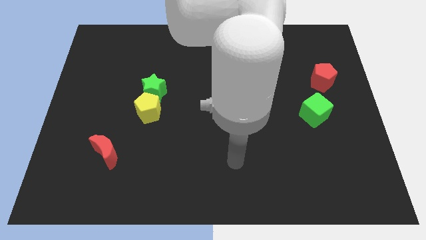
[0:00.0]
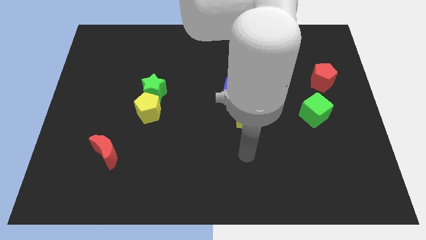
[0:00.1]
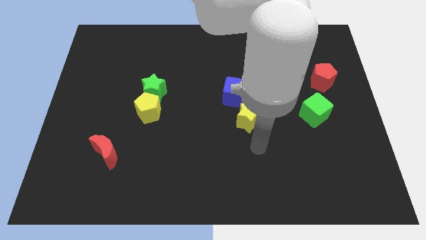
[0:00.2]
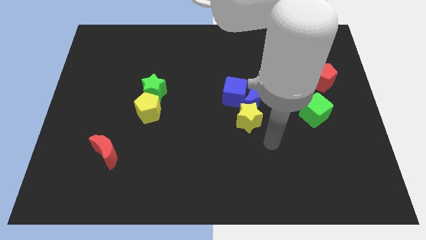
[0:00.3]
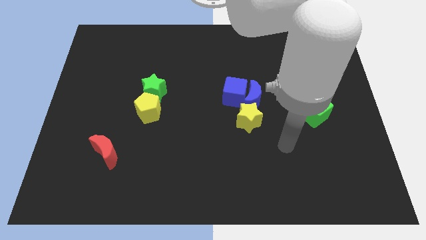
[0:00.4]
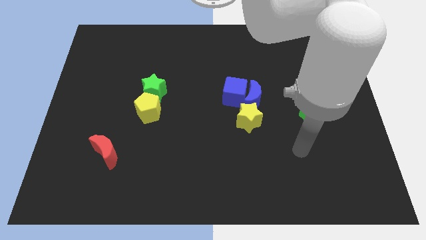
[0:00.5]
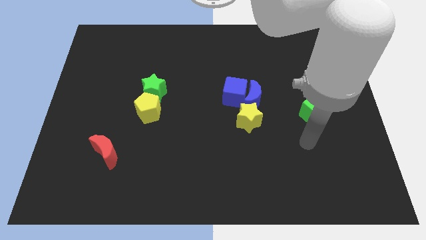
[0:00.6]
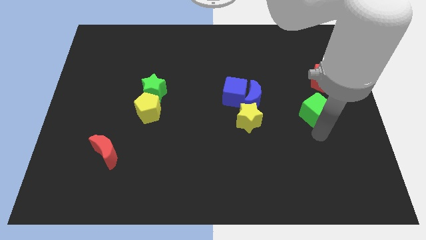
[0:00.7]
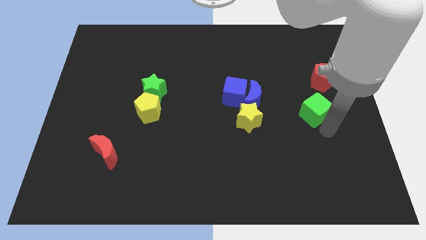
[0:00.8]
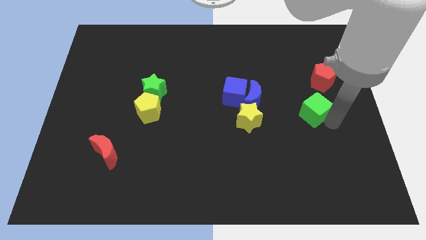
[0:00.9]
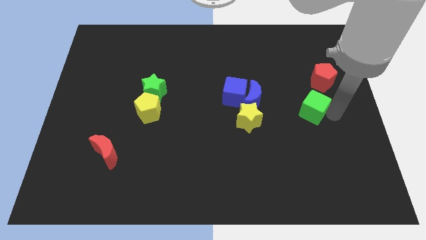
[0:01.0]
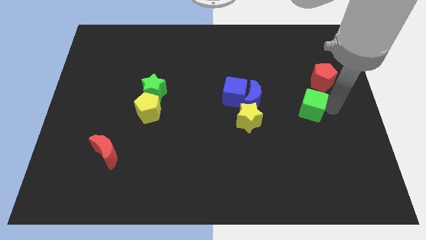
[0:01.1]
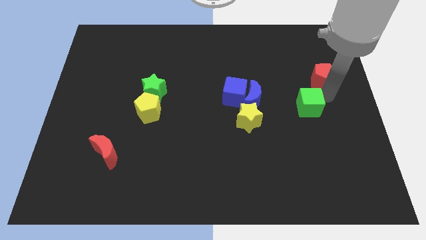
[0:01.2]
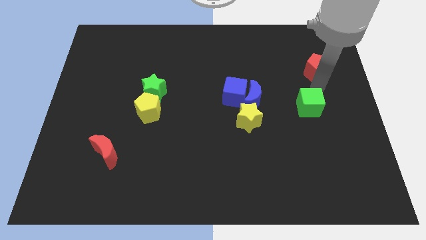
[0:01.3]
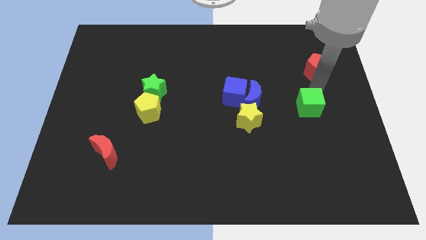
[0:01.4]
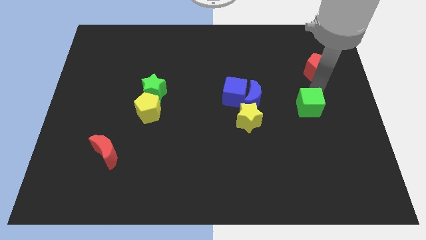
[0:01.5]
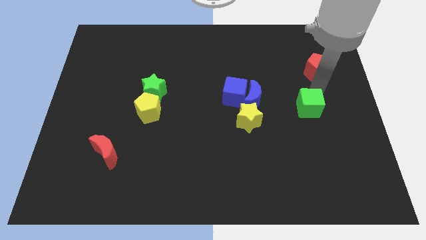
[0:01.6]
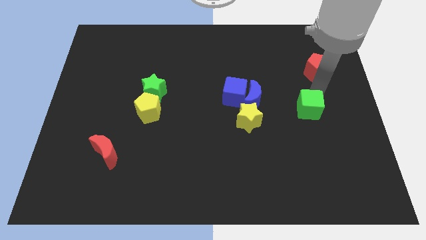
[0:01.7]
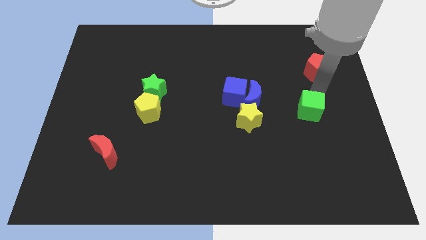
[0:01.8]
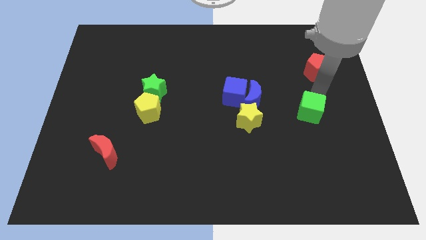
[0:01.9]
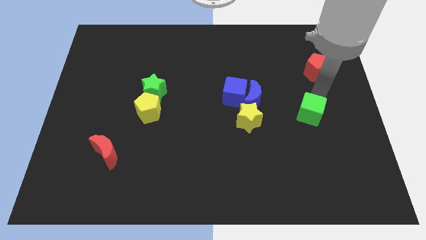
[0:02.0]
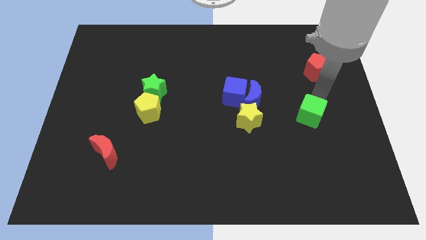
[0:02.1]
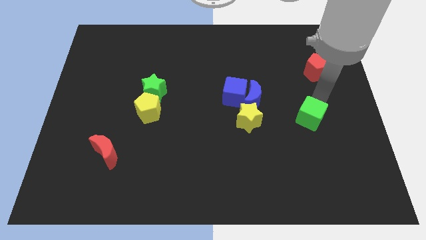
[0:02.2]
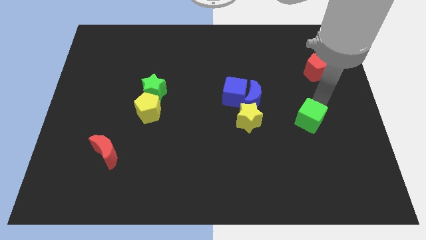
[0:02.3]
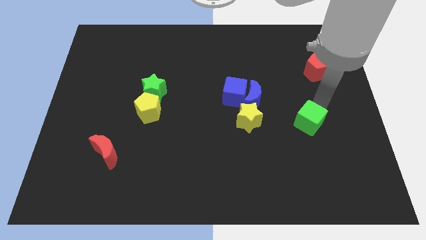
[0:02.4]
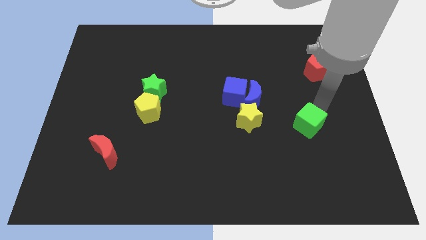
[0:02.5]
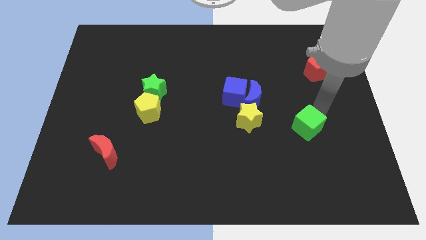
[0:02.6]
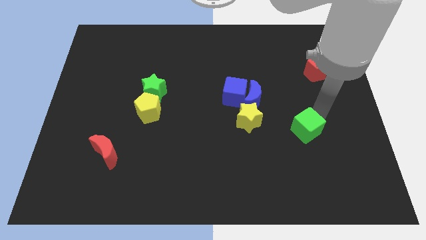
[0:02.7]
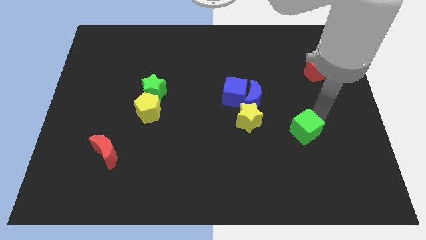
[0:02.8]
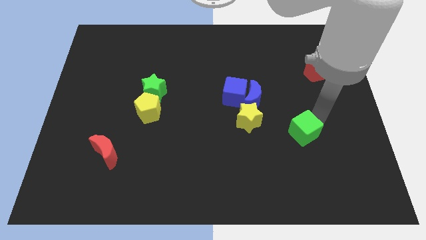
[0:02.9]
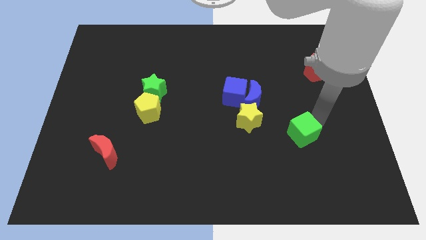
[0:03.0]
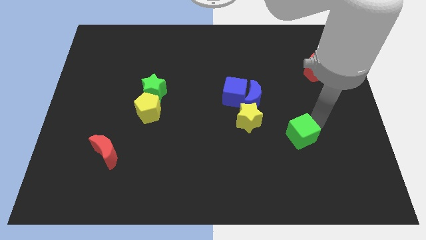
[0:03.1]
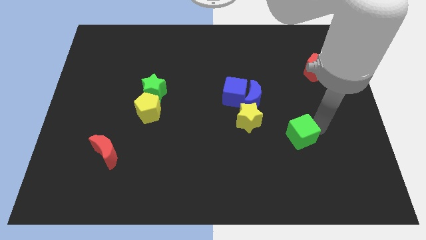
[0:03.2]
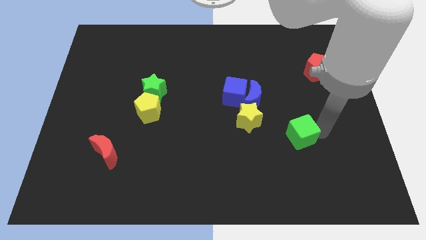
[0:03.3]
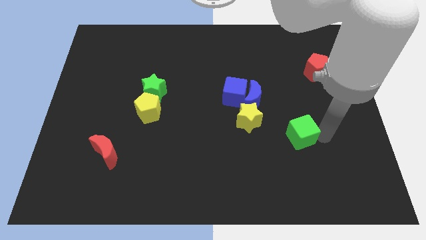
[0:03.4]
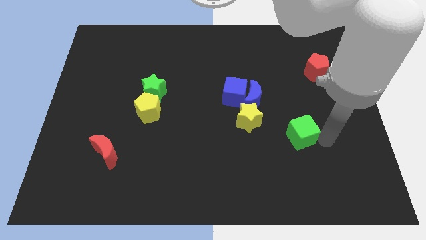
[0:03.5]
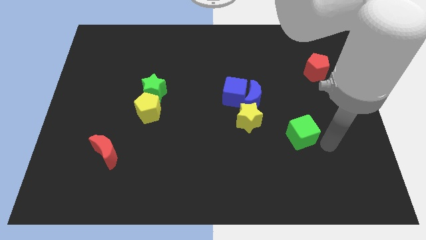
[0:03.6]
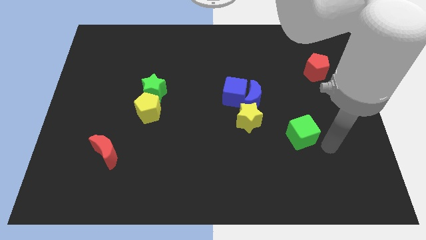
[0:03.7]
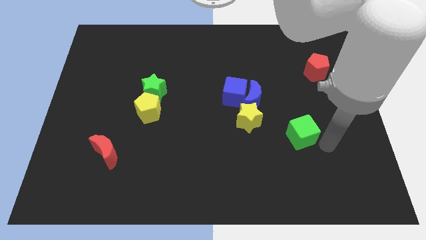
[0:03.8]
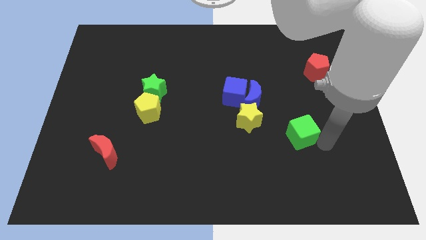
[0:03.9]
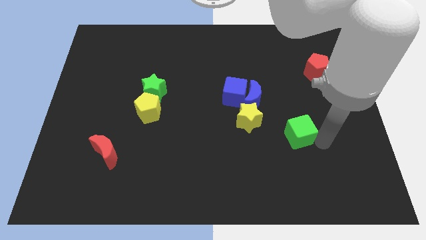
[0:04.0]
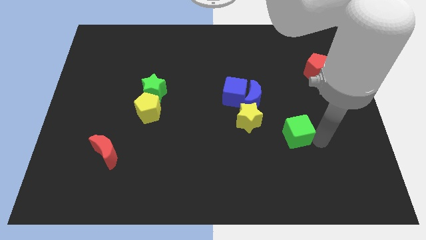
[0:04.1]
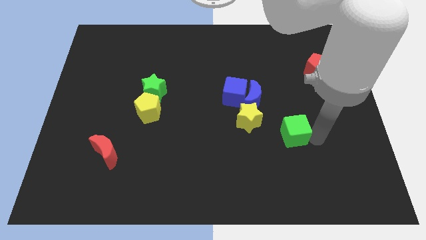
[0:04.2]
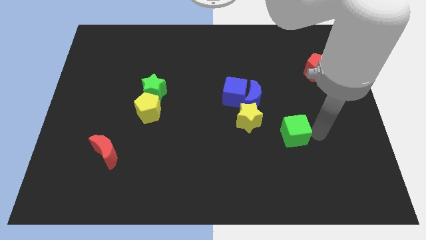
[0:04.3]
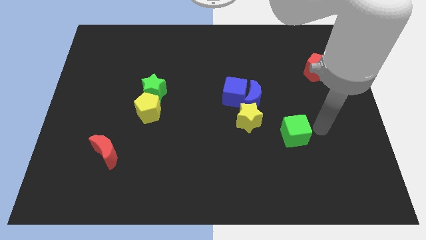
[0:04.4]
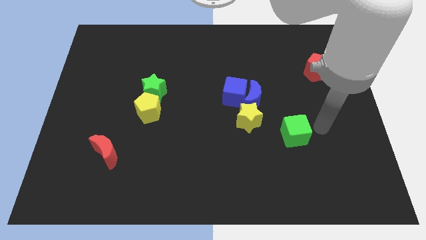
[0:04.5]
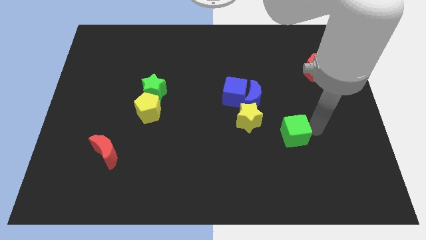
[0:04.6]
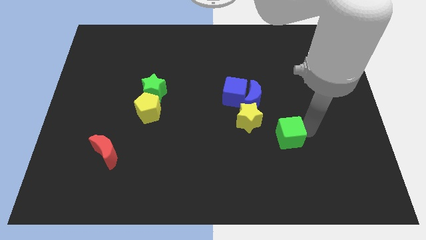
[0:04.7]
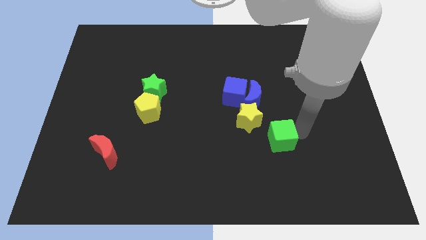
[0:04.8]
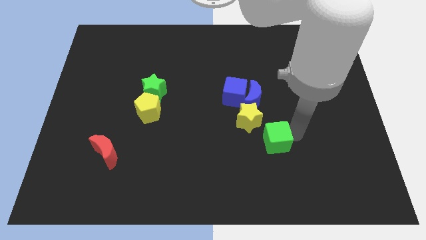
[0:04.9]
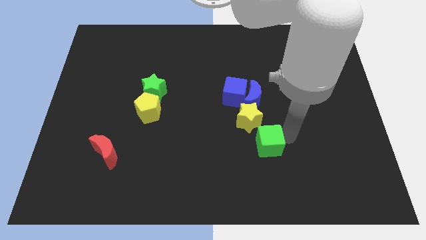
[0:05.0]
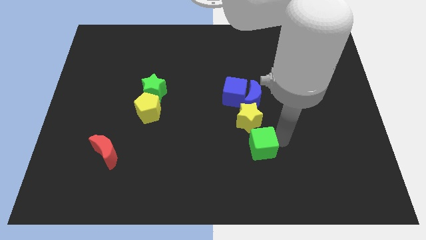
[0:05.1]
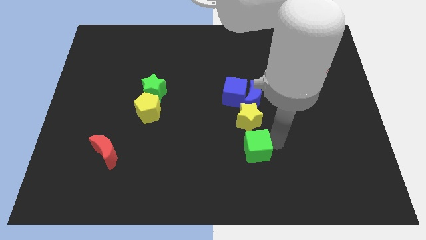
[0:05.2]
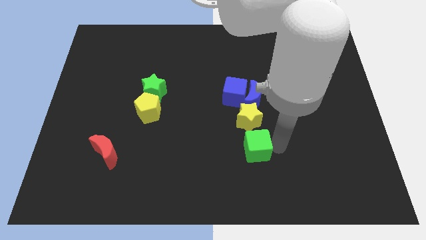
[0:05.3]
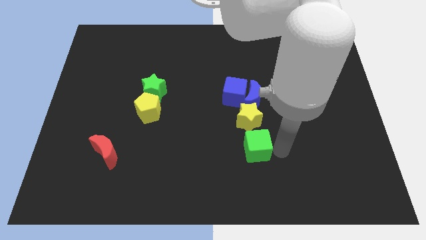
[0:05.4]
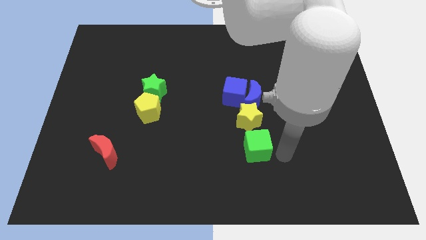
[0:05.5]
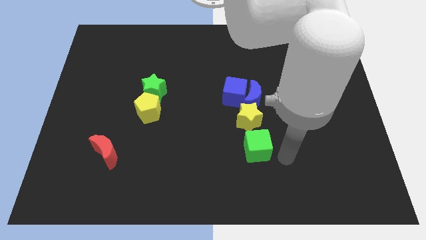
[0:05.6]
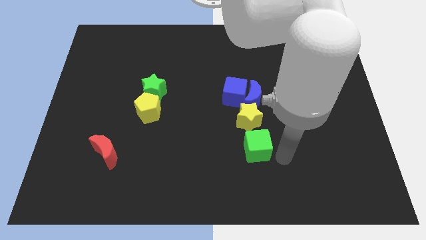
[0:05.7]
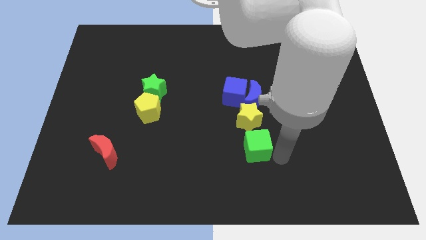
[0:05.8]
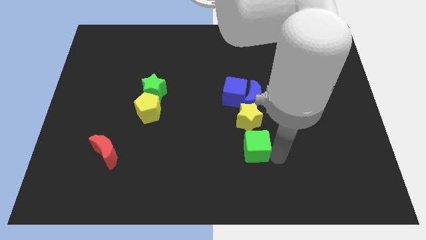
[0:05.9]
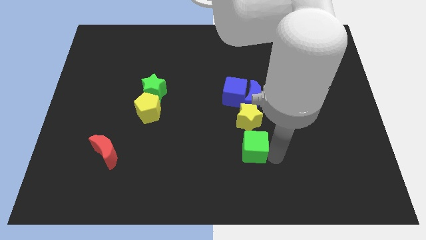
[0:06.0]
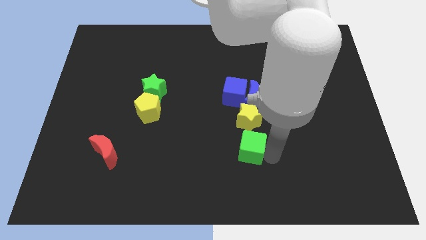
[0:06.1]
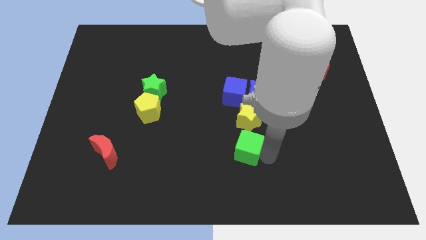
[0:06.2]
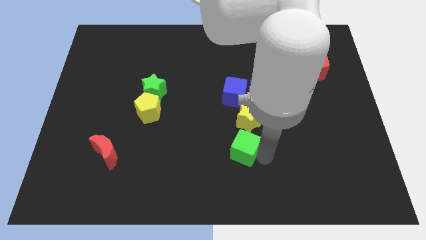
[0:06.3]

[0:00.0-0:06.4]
move the green cube to the bottom left side of the yellow star
